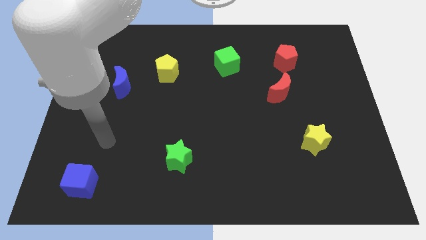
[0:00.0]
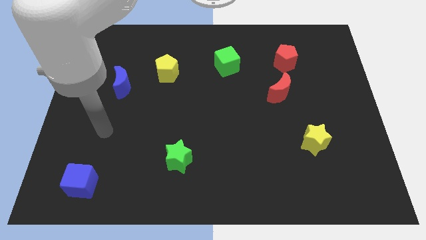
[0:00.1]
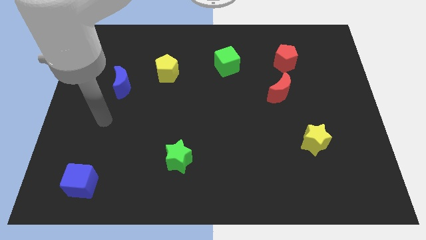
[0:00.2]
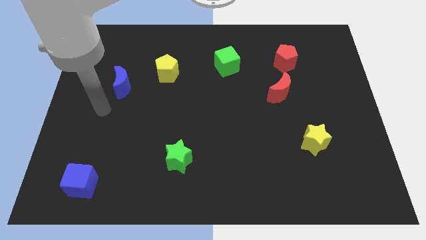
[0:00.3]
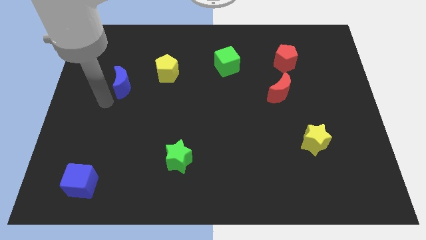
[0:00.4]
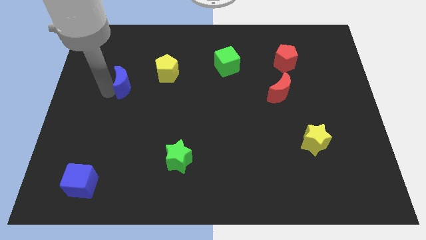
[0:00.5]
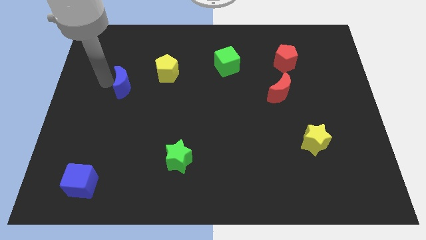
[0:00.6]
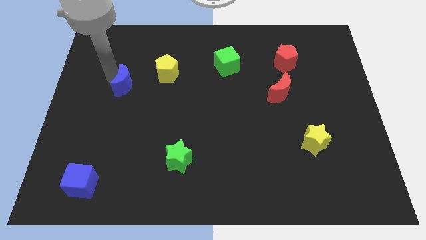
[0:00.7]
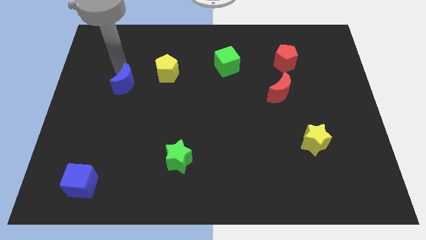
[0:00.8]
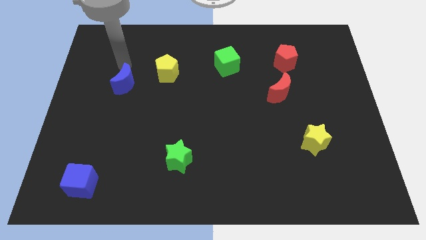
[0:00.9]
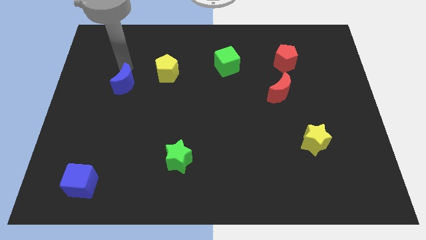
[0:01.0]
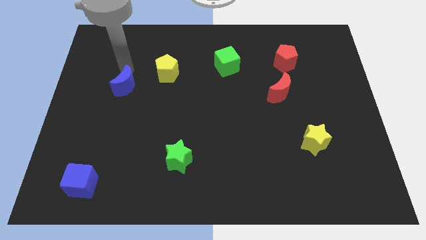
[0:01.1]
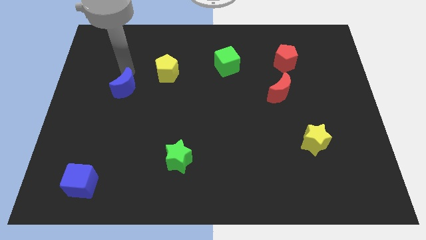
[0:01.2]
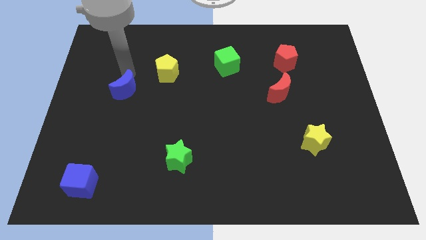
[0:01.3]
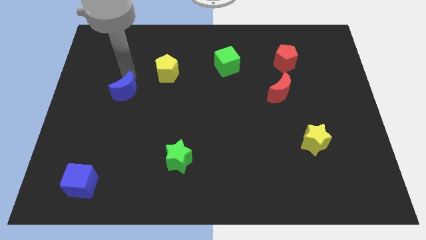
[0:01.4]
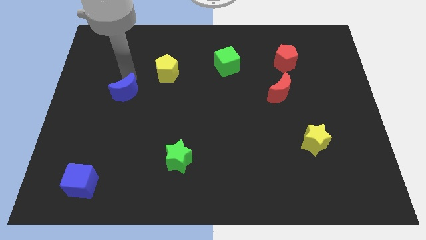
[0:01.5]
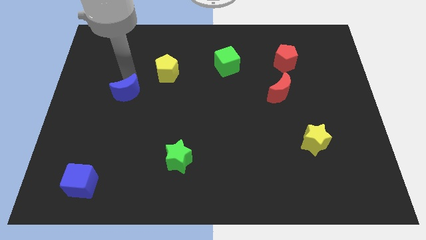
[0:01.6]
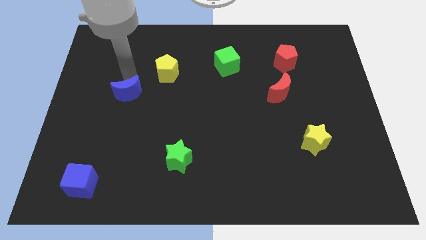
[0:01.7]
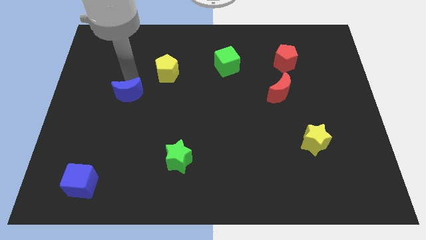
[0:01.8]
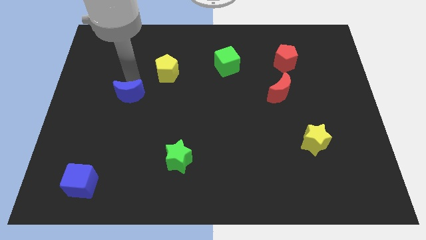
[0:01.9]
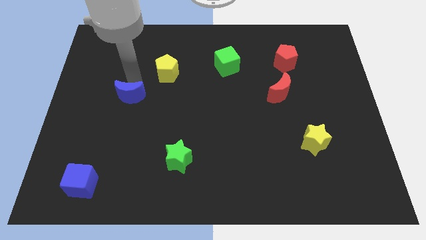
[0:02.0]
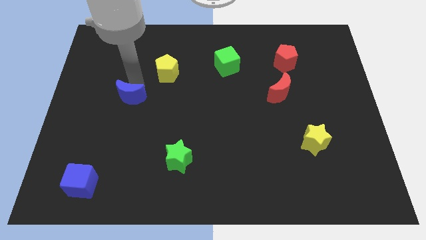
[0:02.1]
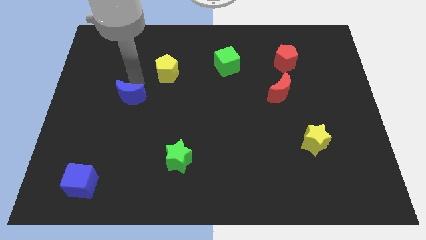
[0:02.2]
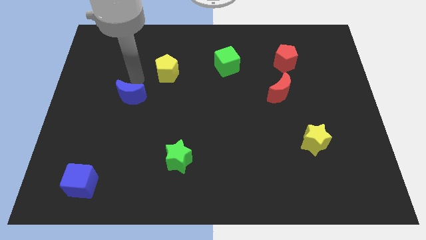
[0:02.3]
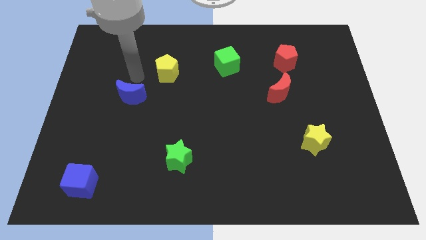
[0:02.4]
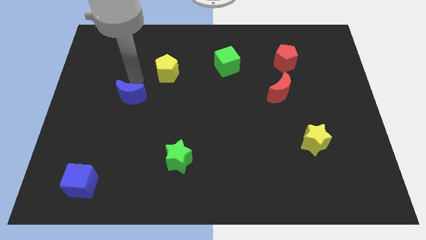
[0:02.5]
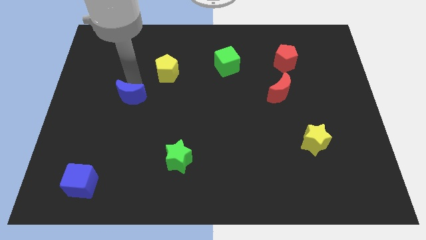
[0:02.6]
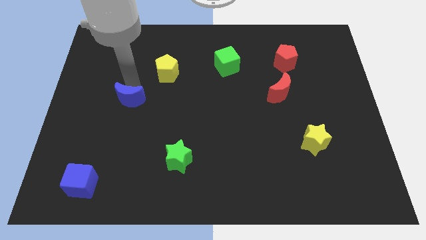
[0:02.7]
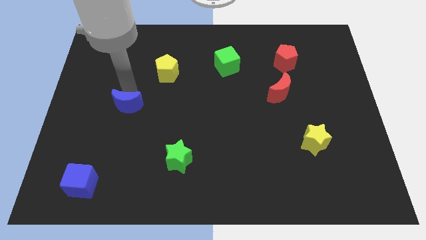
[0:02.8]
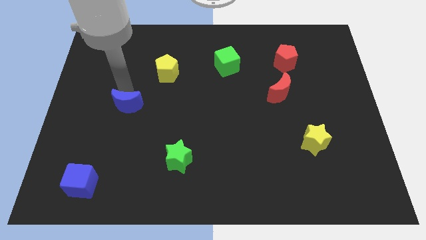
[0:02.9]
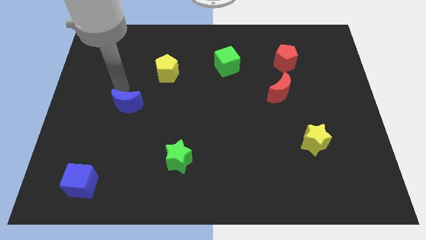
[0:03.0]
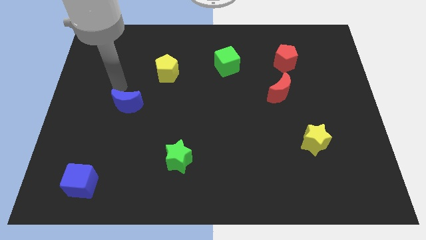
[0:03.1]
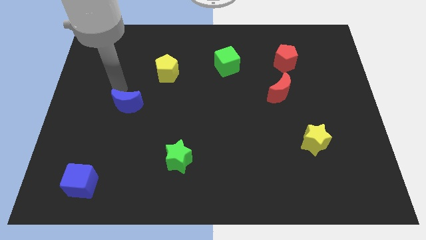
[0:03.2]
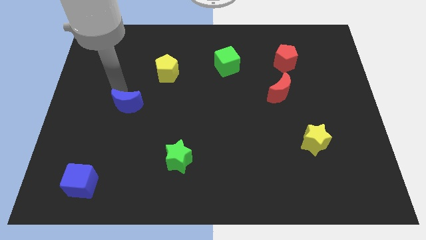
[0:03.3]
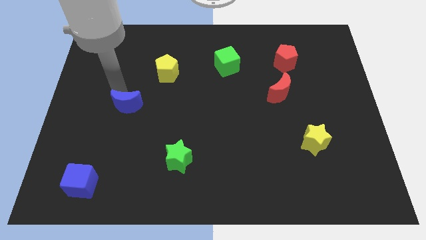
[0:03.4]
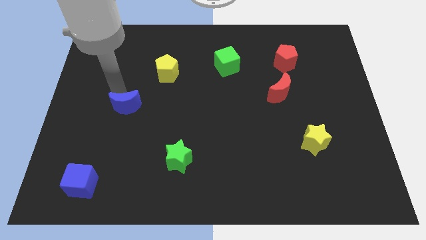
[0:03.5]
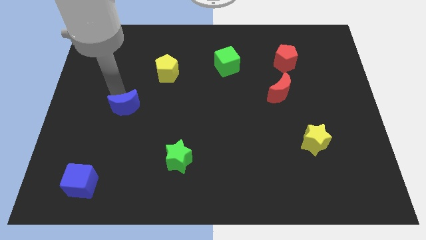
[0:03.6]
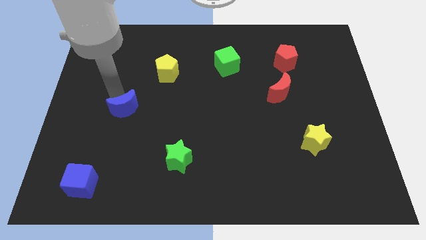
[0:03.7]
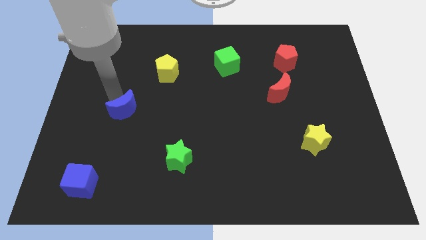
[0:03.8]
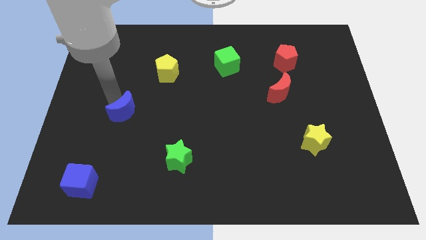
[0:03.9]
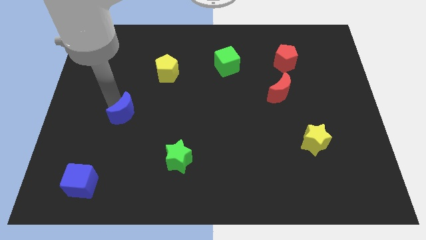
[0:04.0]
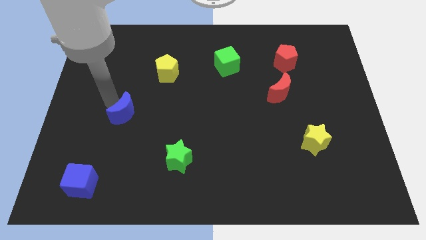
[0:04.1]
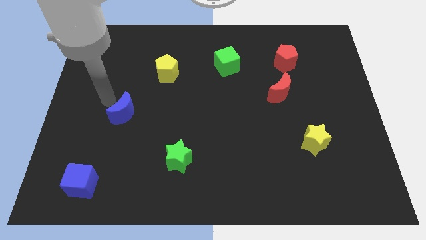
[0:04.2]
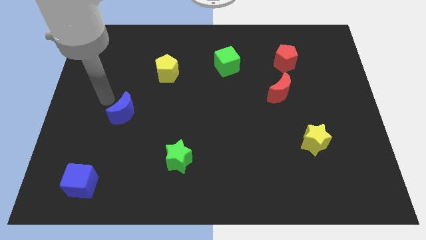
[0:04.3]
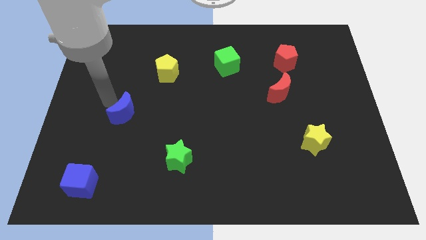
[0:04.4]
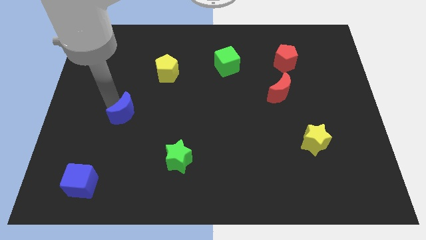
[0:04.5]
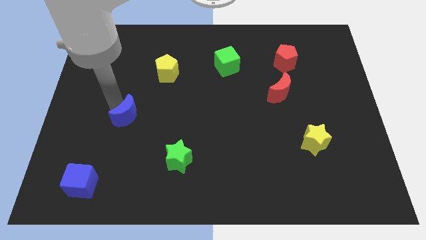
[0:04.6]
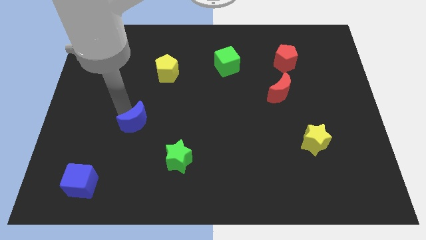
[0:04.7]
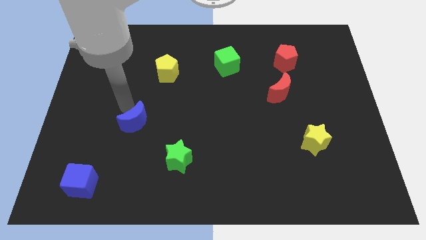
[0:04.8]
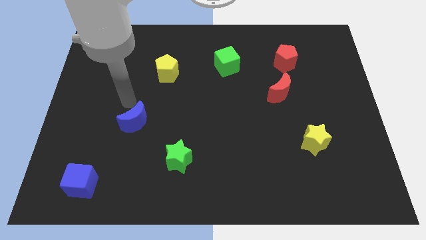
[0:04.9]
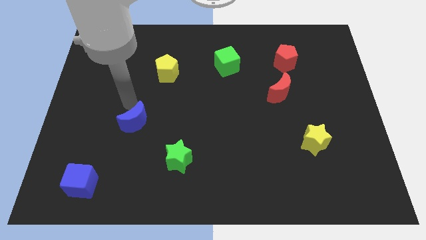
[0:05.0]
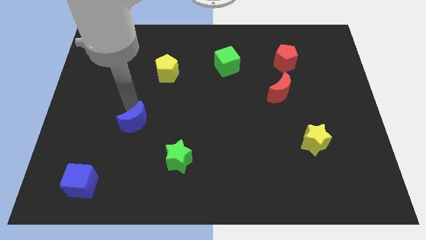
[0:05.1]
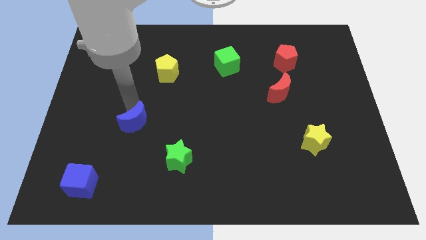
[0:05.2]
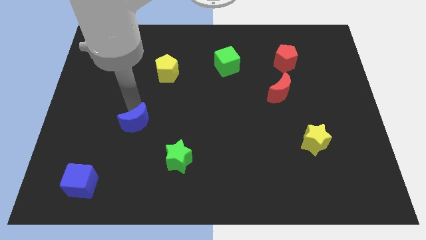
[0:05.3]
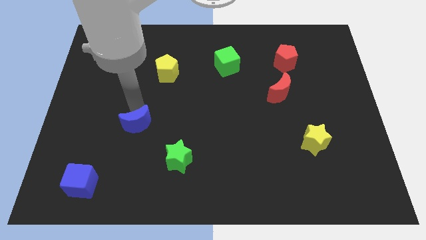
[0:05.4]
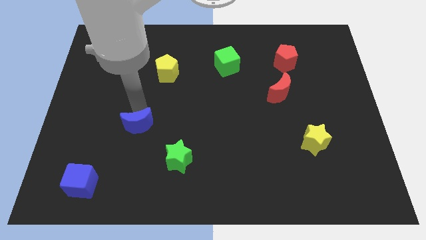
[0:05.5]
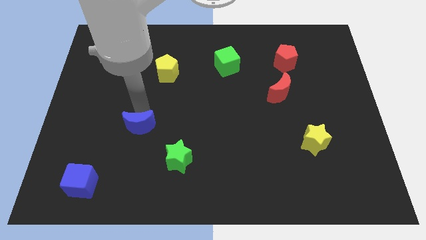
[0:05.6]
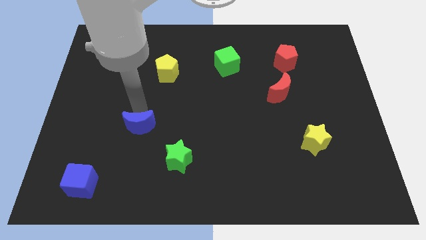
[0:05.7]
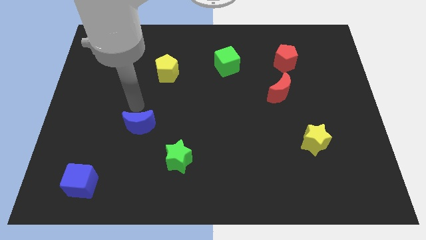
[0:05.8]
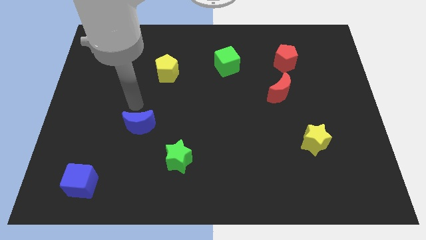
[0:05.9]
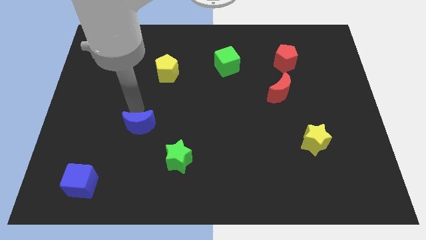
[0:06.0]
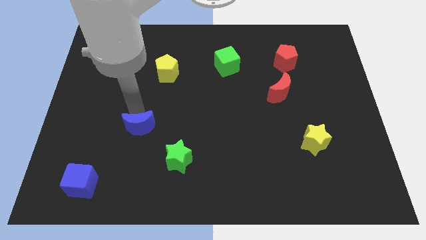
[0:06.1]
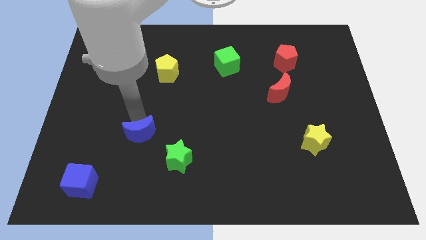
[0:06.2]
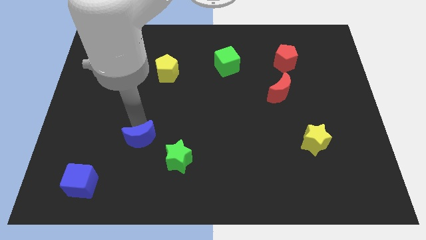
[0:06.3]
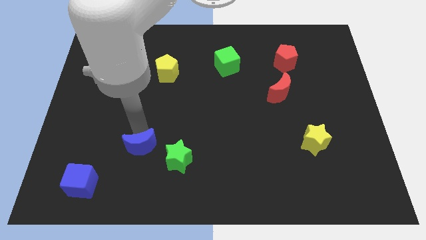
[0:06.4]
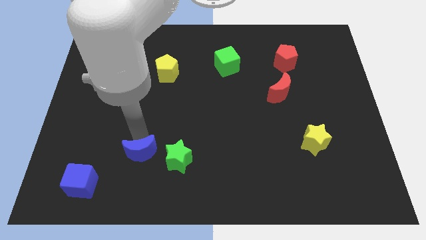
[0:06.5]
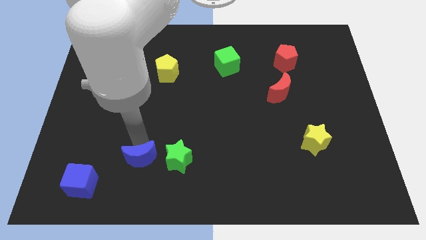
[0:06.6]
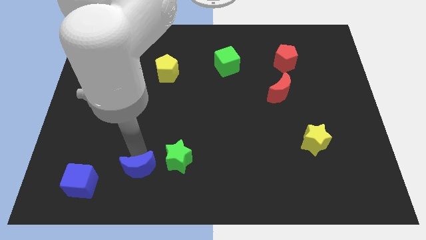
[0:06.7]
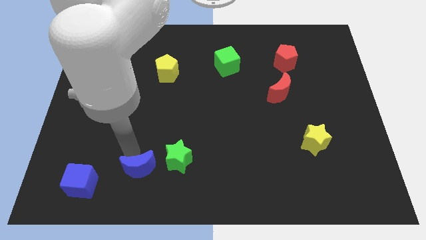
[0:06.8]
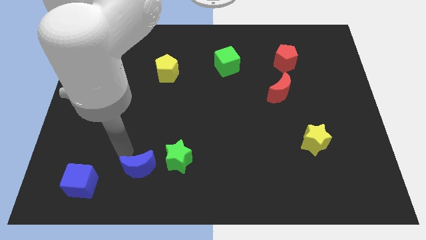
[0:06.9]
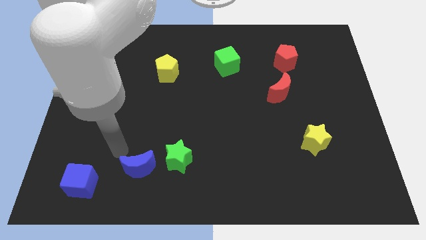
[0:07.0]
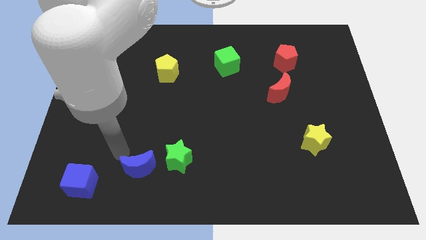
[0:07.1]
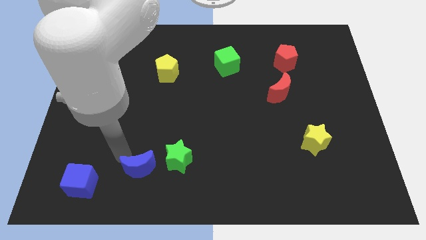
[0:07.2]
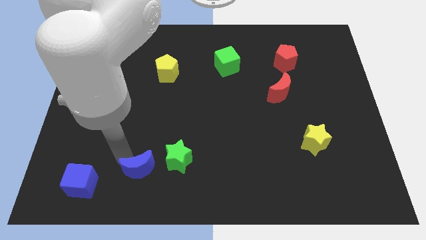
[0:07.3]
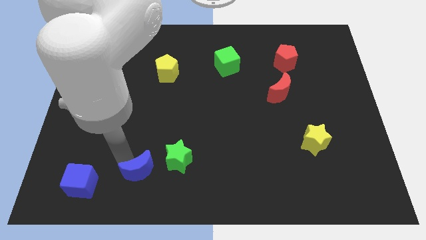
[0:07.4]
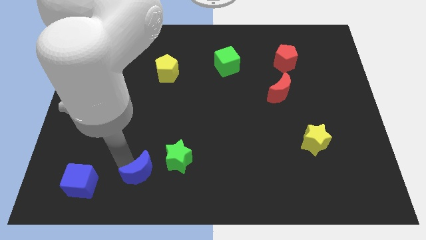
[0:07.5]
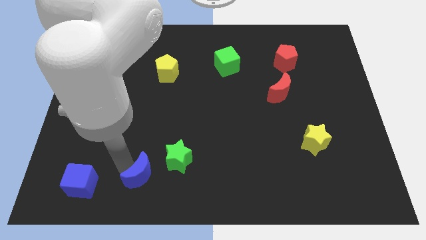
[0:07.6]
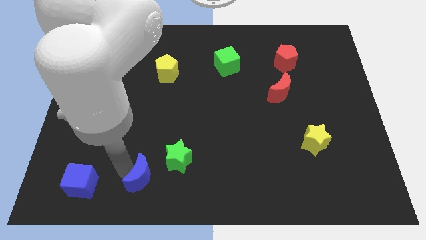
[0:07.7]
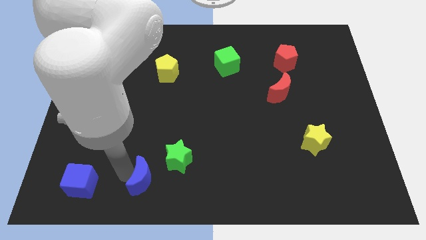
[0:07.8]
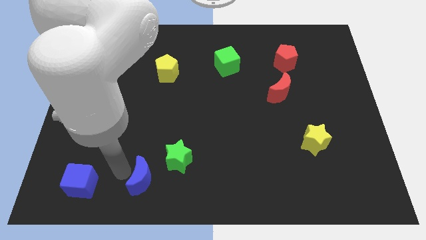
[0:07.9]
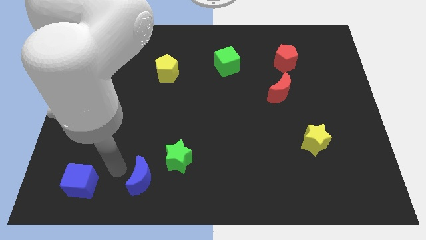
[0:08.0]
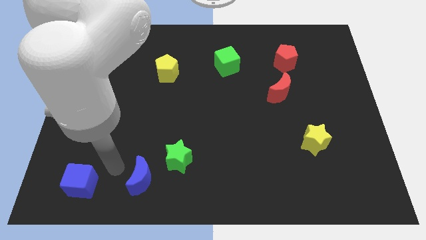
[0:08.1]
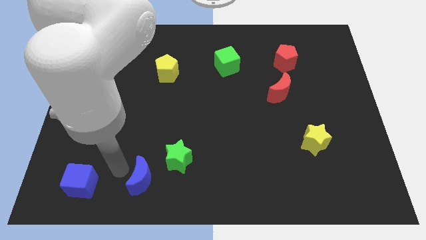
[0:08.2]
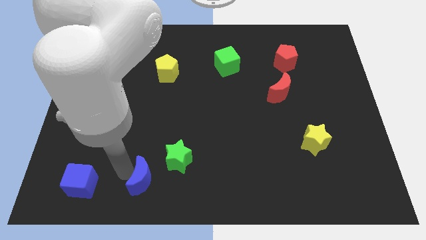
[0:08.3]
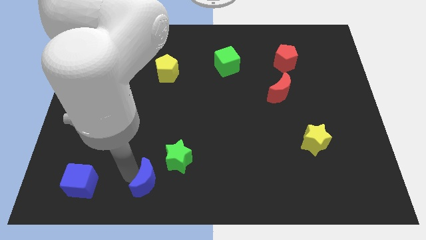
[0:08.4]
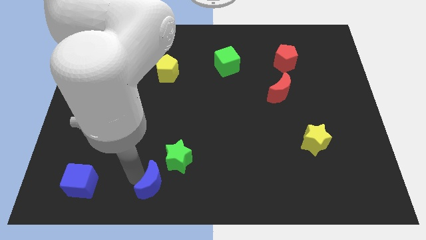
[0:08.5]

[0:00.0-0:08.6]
push the blue moon to the bottom side
